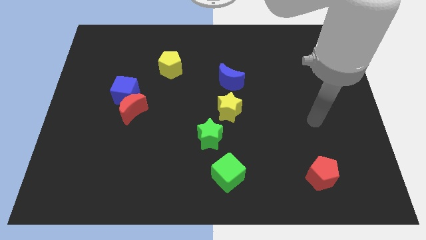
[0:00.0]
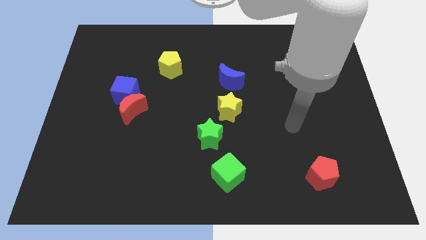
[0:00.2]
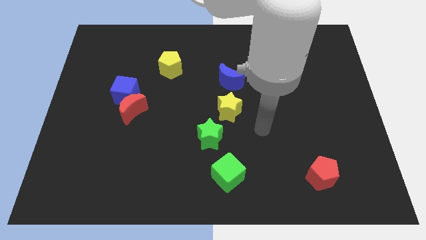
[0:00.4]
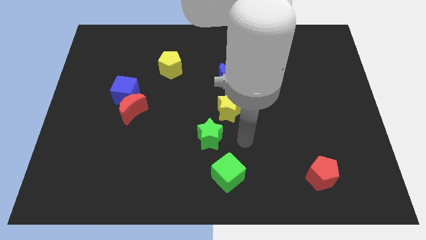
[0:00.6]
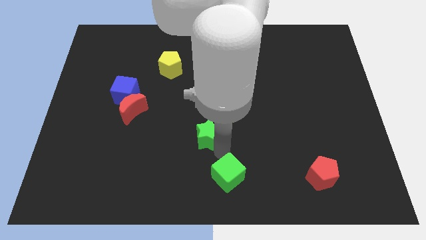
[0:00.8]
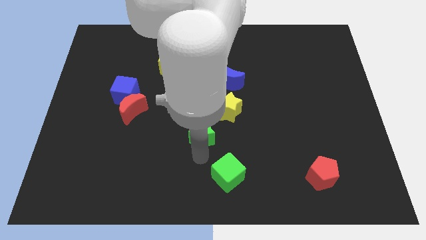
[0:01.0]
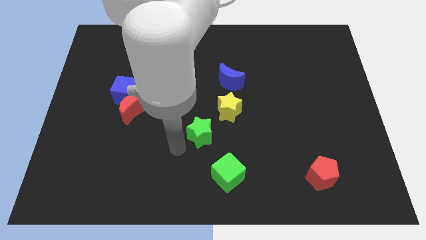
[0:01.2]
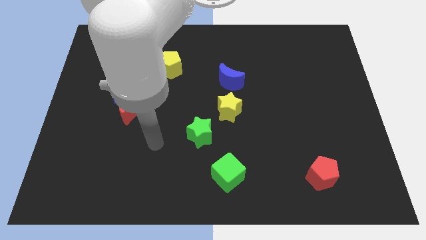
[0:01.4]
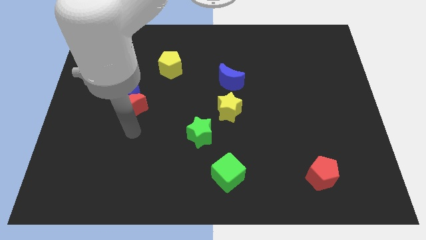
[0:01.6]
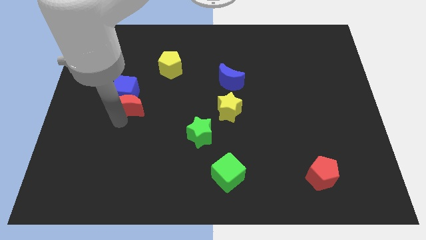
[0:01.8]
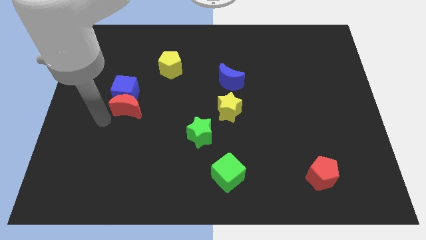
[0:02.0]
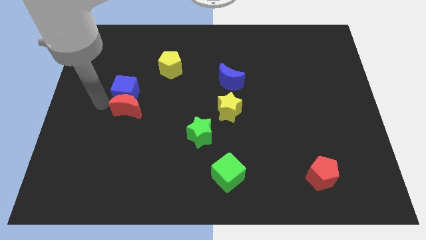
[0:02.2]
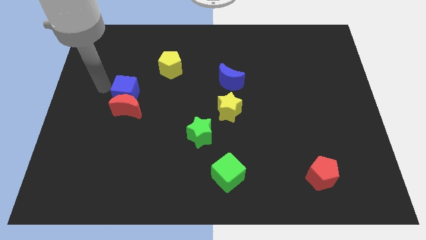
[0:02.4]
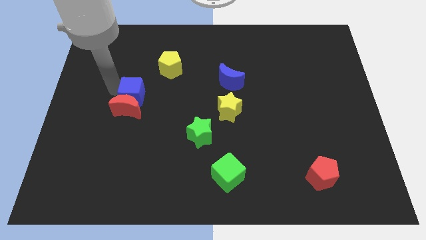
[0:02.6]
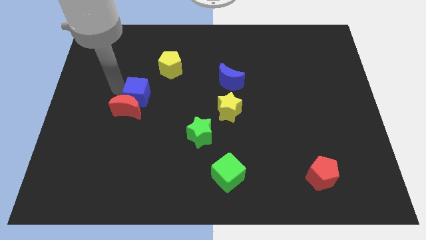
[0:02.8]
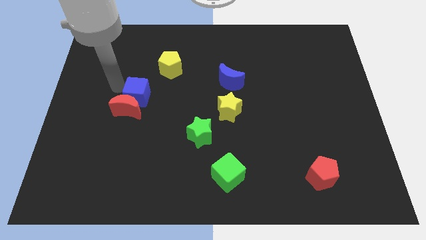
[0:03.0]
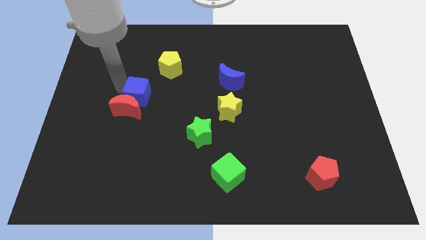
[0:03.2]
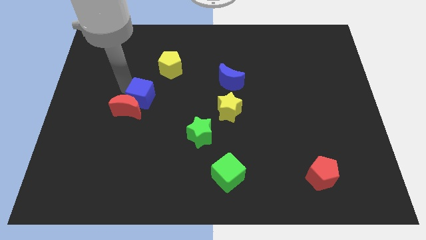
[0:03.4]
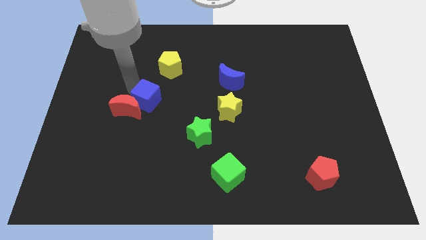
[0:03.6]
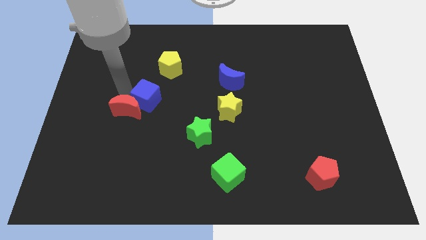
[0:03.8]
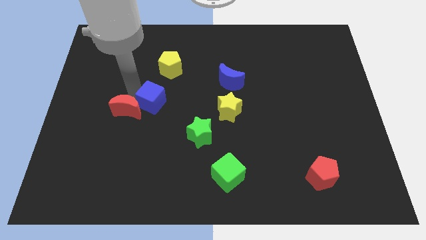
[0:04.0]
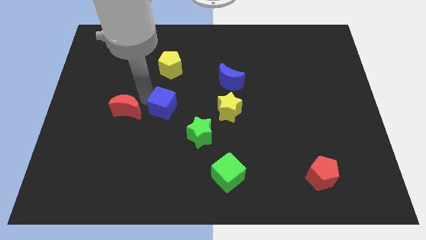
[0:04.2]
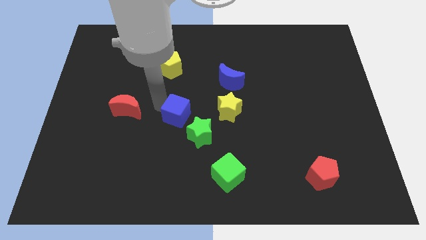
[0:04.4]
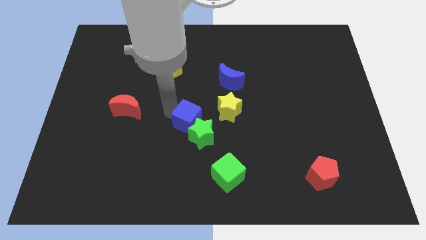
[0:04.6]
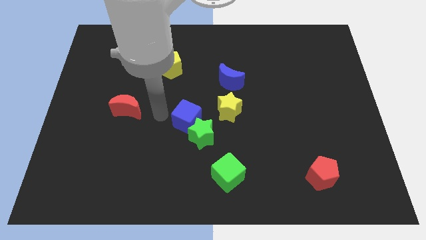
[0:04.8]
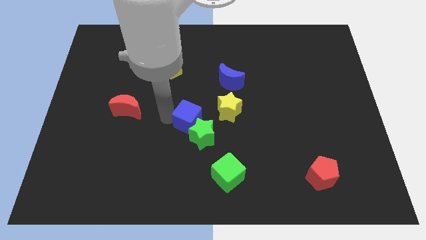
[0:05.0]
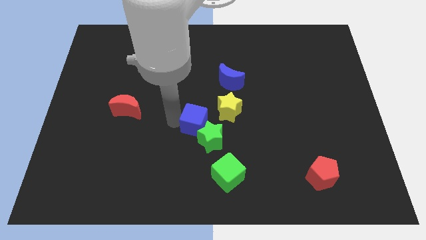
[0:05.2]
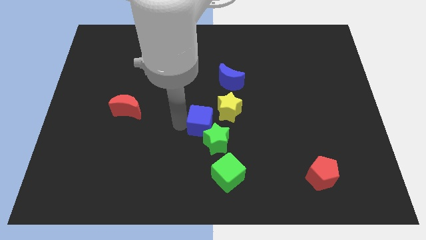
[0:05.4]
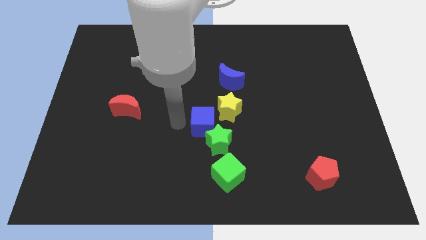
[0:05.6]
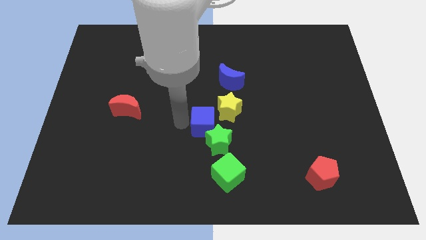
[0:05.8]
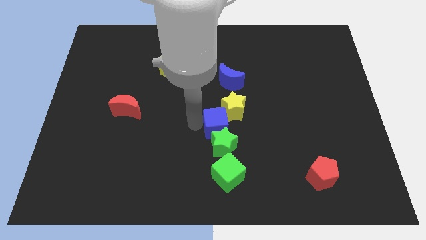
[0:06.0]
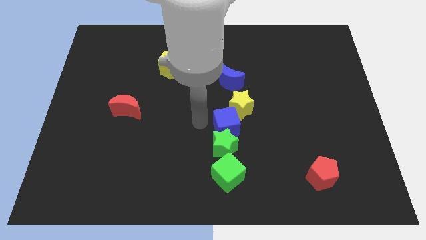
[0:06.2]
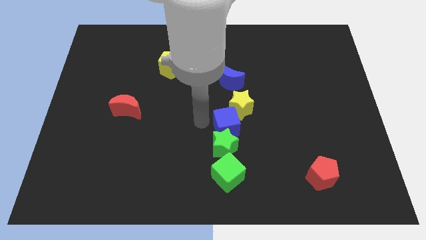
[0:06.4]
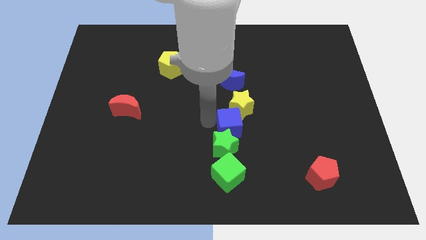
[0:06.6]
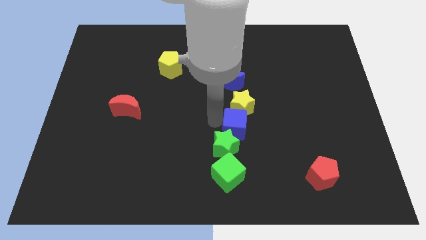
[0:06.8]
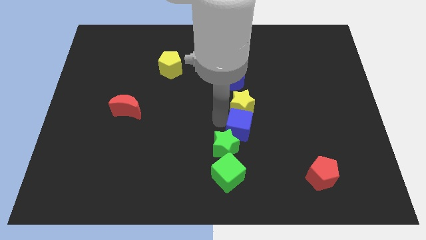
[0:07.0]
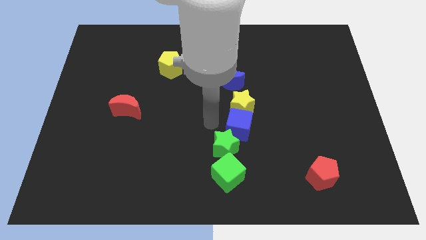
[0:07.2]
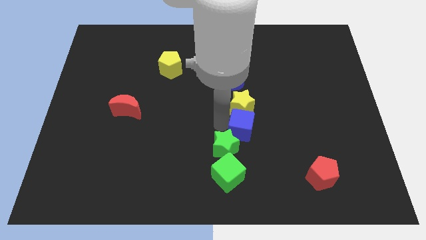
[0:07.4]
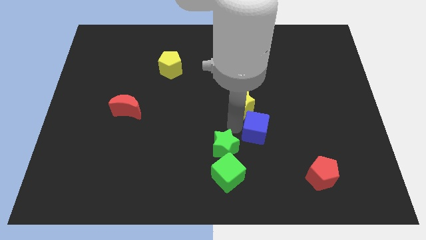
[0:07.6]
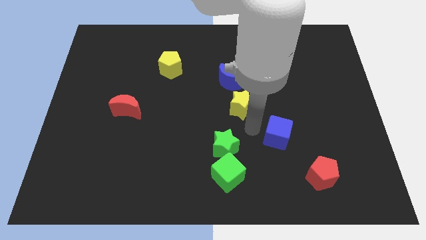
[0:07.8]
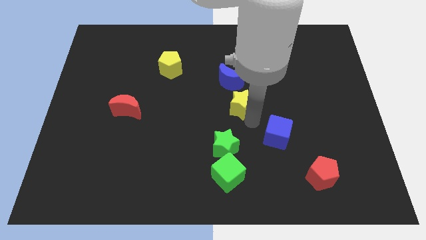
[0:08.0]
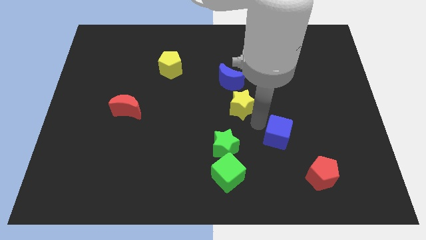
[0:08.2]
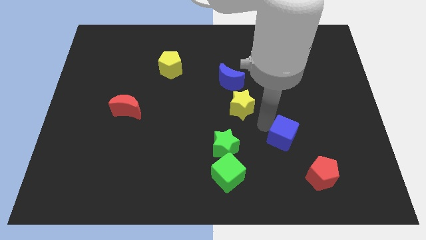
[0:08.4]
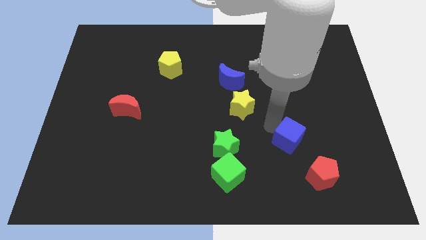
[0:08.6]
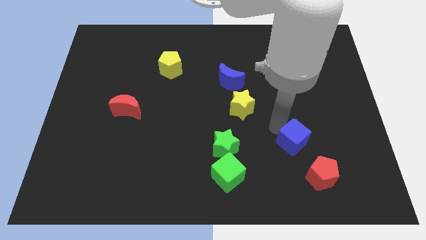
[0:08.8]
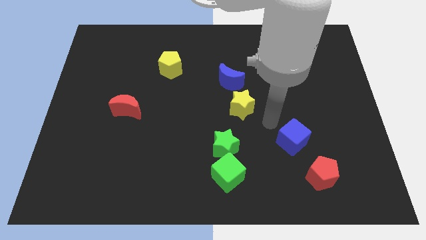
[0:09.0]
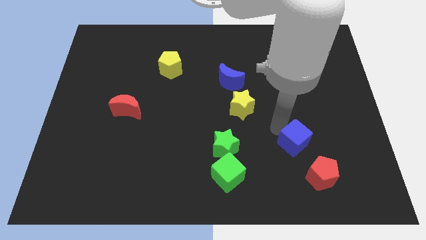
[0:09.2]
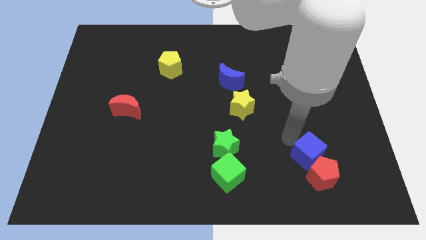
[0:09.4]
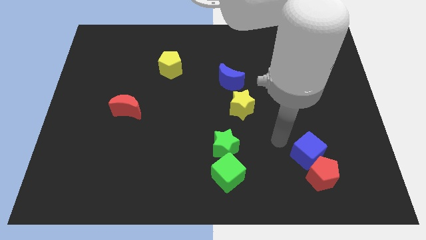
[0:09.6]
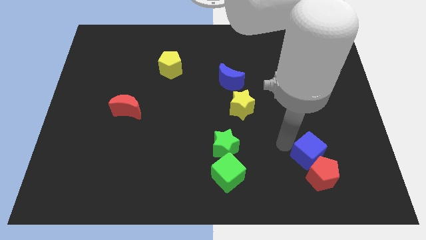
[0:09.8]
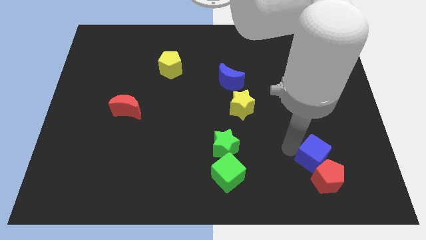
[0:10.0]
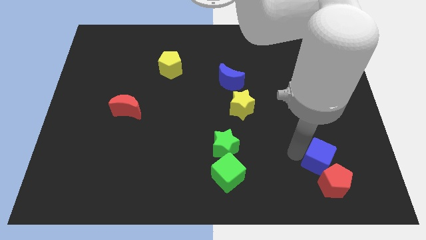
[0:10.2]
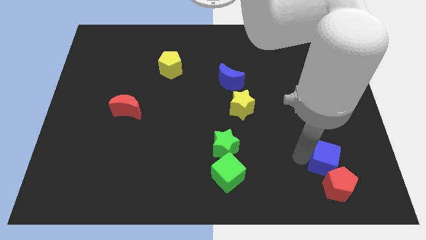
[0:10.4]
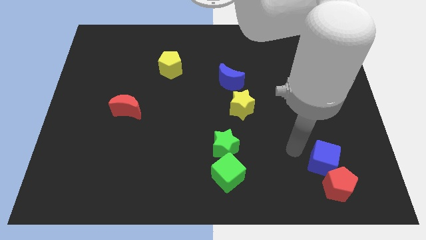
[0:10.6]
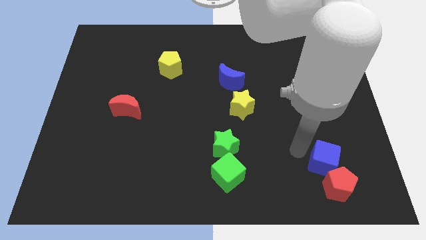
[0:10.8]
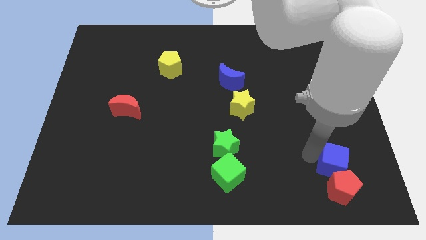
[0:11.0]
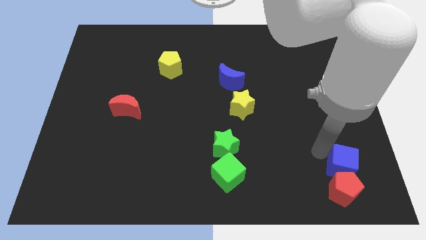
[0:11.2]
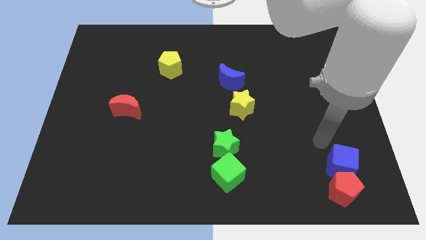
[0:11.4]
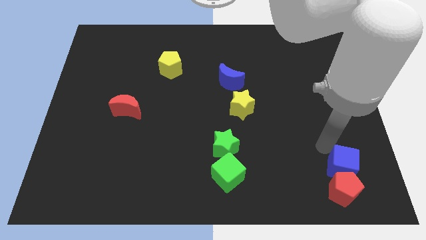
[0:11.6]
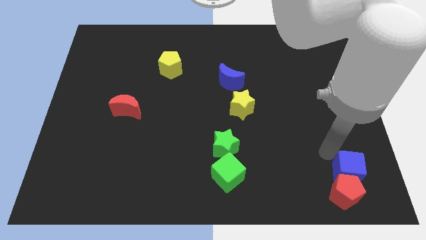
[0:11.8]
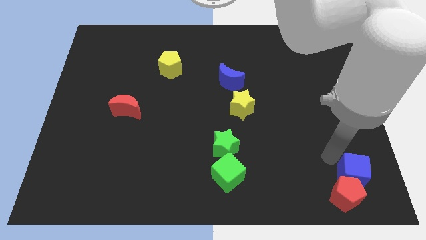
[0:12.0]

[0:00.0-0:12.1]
move the blue cube to the bottom right
